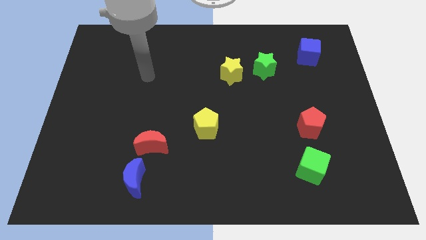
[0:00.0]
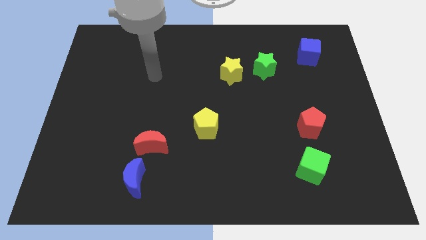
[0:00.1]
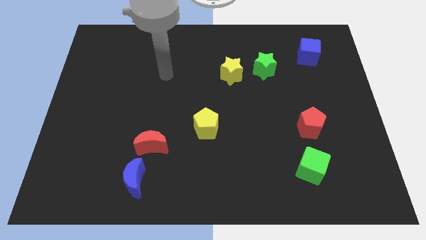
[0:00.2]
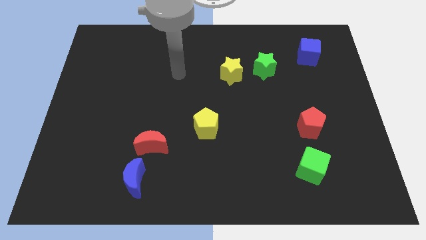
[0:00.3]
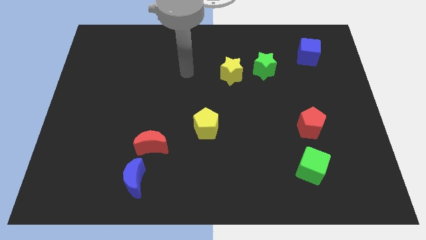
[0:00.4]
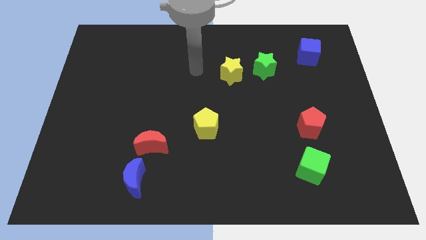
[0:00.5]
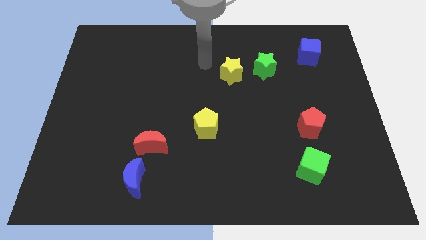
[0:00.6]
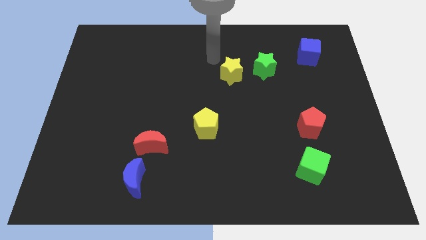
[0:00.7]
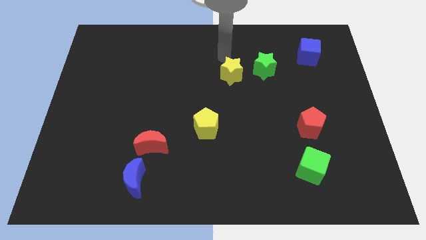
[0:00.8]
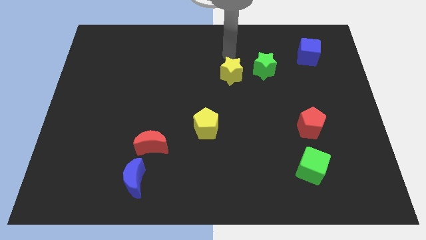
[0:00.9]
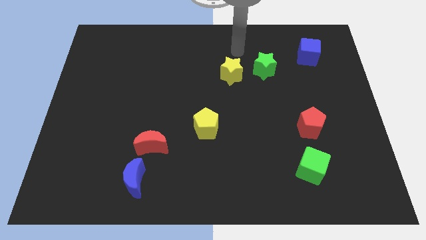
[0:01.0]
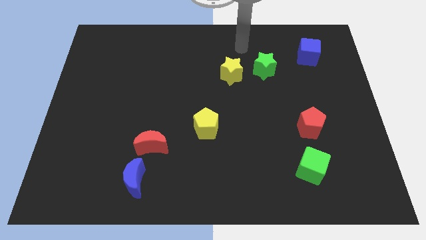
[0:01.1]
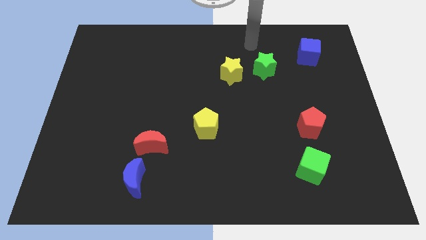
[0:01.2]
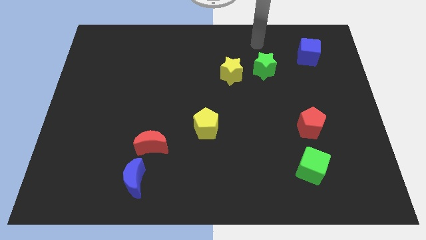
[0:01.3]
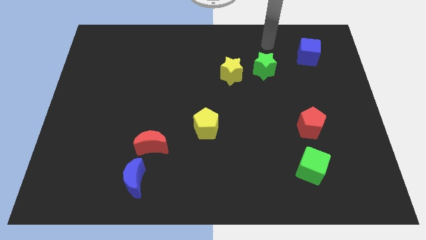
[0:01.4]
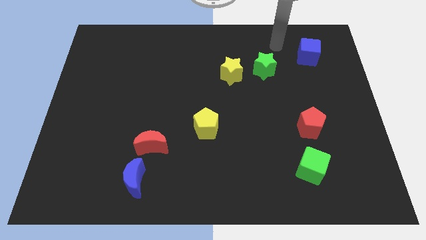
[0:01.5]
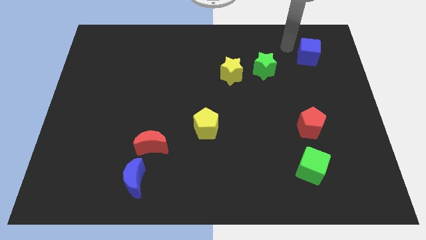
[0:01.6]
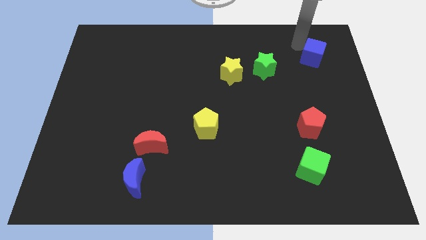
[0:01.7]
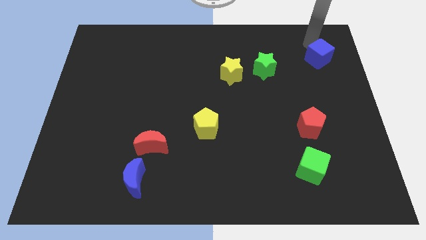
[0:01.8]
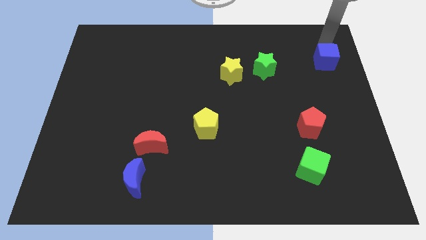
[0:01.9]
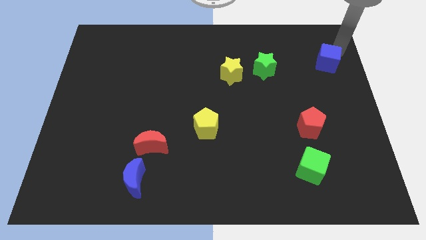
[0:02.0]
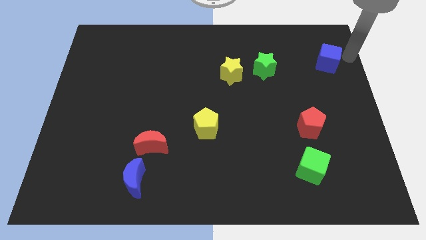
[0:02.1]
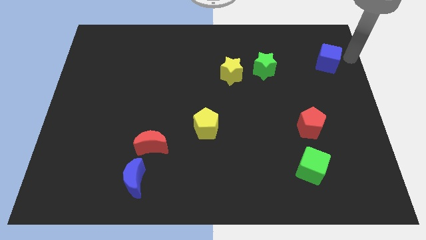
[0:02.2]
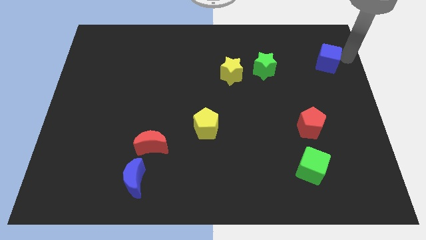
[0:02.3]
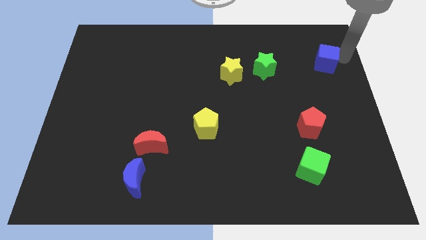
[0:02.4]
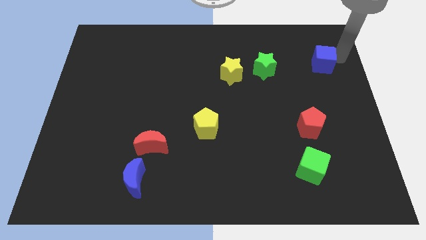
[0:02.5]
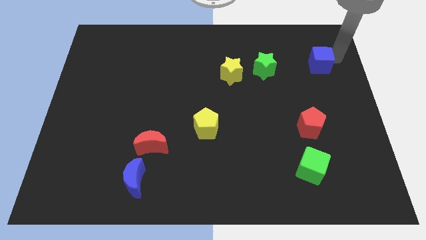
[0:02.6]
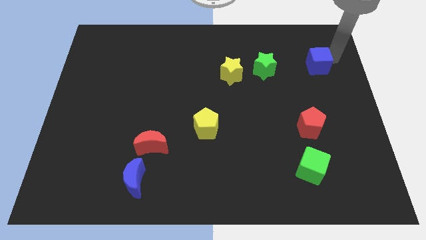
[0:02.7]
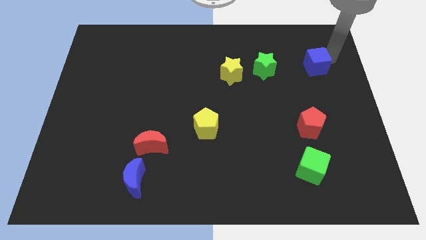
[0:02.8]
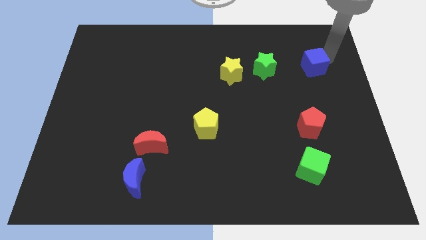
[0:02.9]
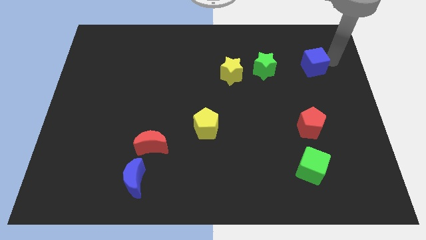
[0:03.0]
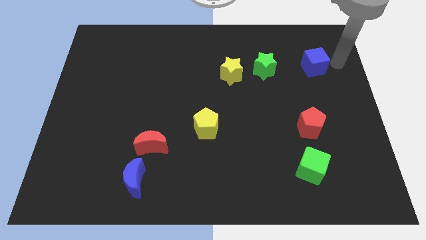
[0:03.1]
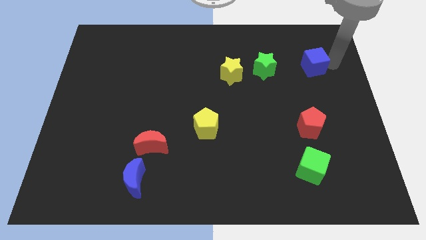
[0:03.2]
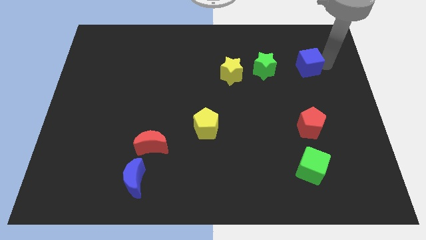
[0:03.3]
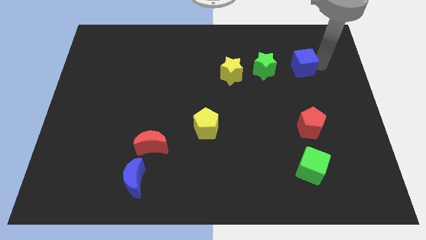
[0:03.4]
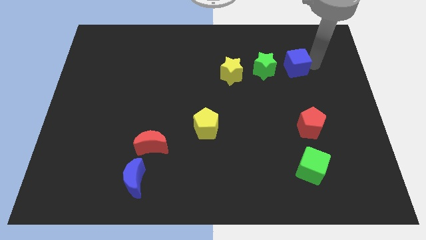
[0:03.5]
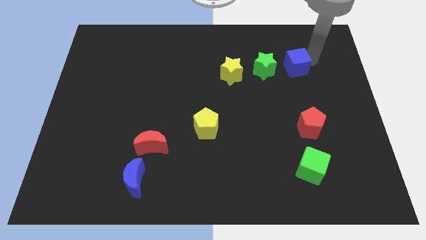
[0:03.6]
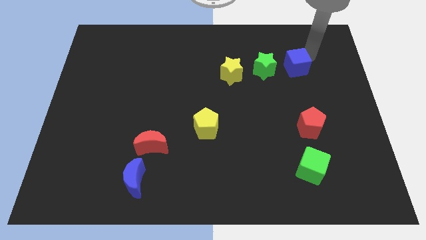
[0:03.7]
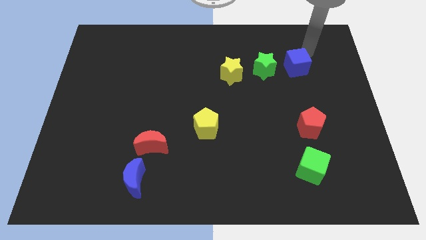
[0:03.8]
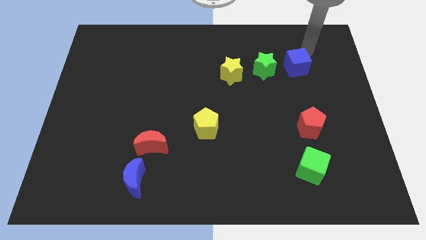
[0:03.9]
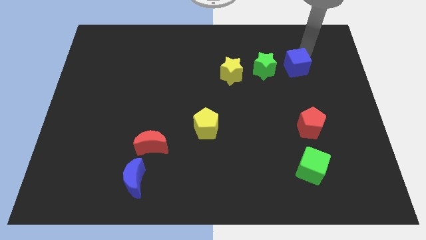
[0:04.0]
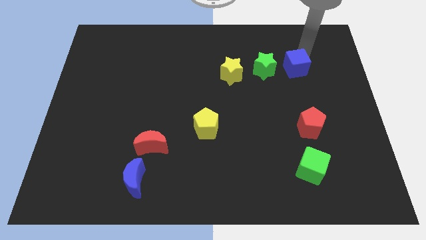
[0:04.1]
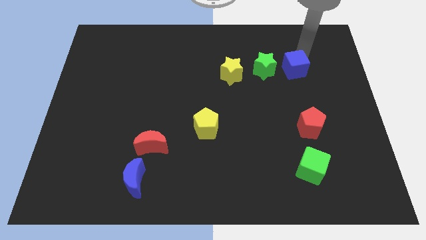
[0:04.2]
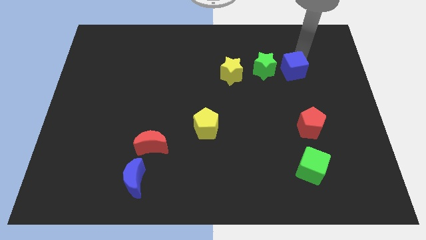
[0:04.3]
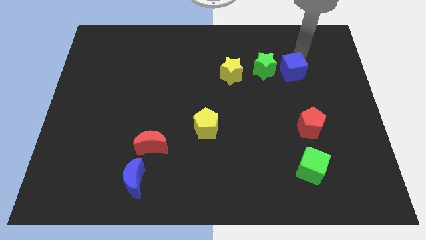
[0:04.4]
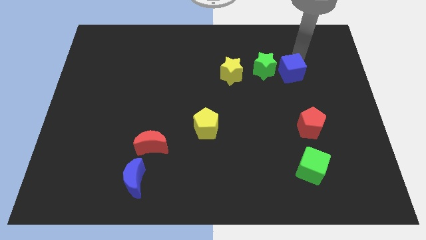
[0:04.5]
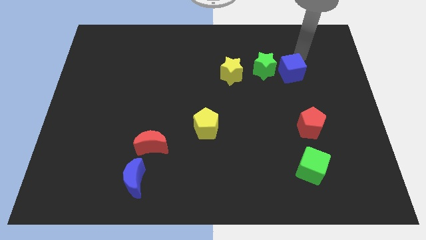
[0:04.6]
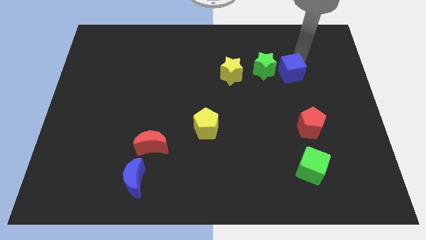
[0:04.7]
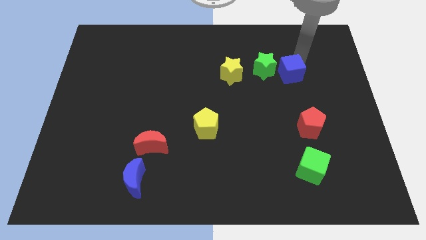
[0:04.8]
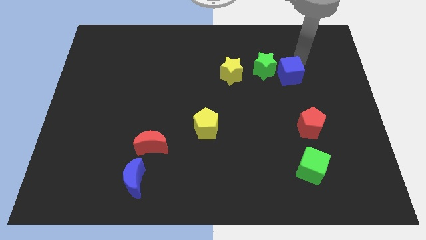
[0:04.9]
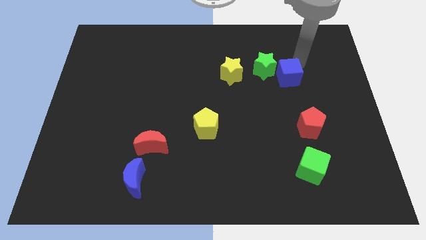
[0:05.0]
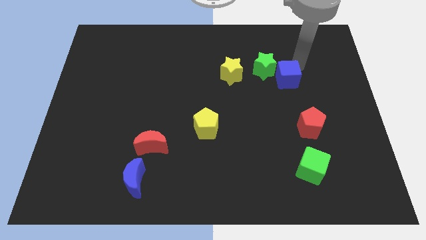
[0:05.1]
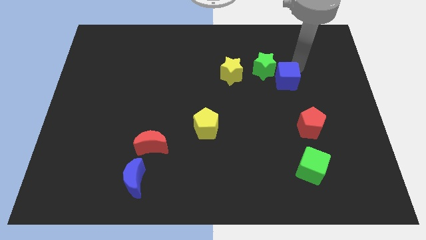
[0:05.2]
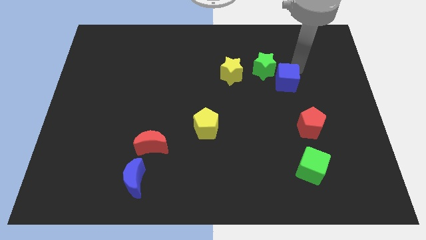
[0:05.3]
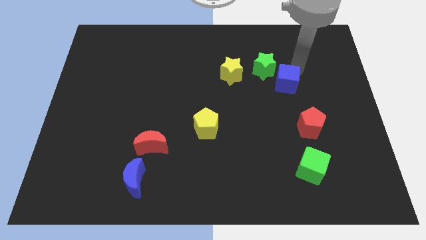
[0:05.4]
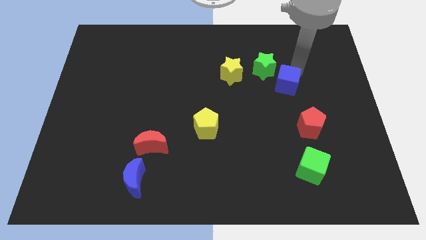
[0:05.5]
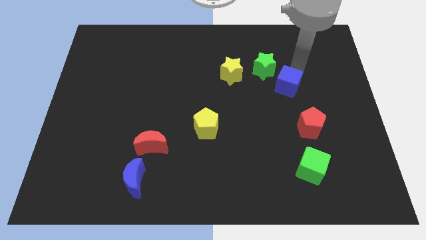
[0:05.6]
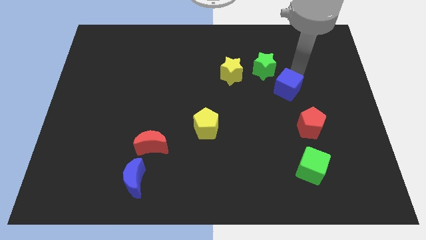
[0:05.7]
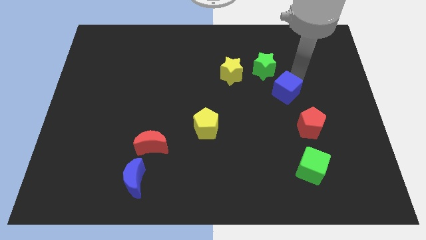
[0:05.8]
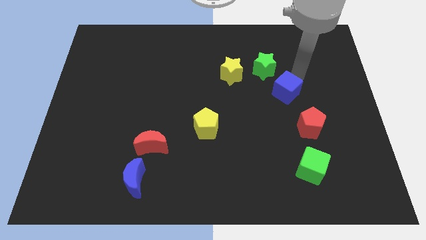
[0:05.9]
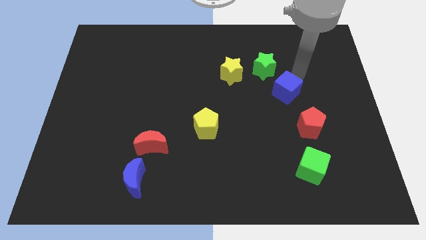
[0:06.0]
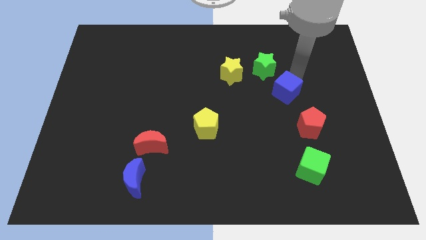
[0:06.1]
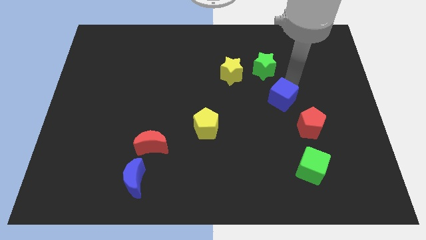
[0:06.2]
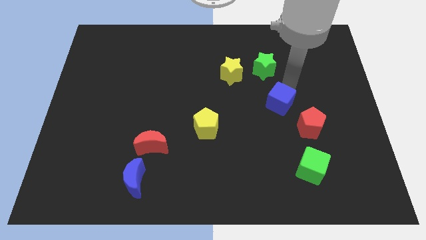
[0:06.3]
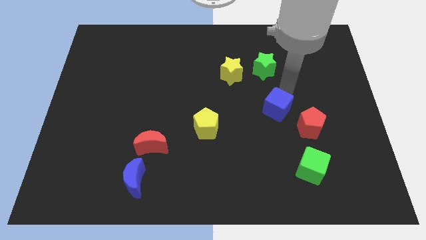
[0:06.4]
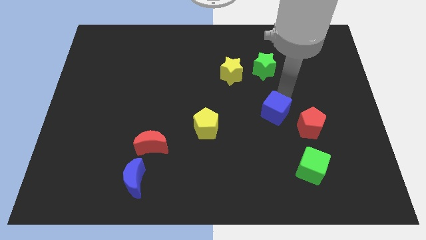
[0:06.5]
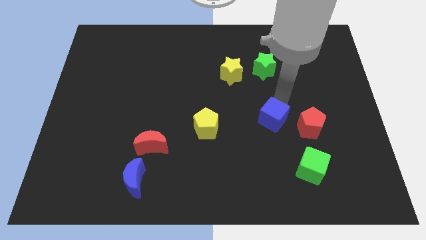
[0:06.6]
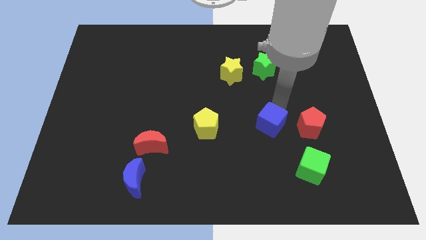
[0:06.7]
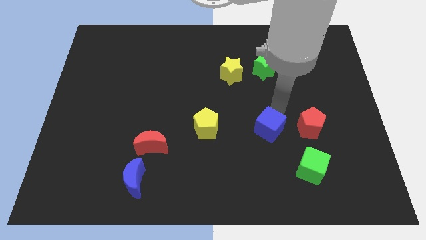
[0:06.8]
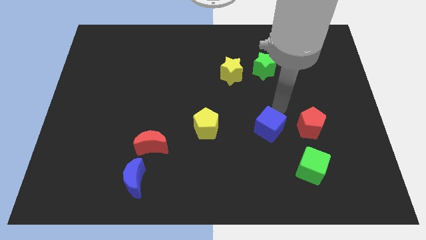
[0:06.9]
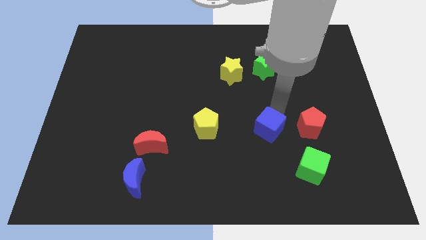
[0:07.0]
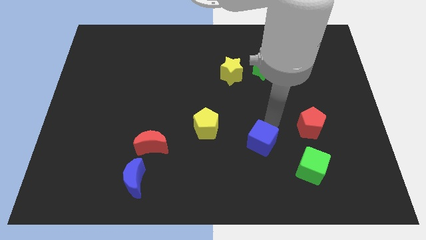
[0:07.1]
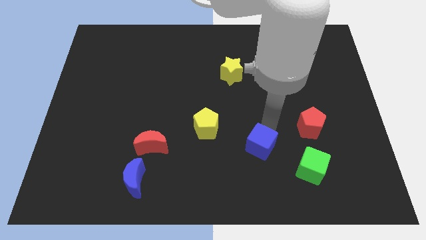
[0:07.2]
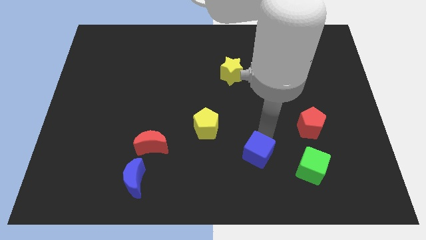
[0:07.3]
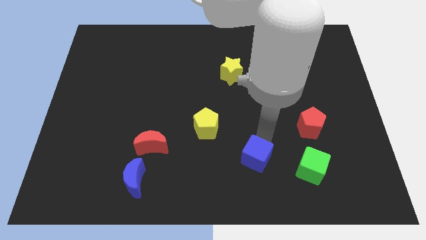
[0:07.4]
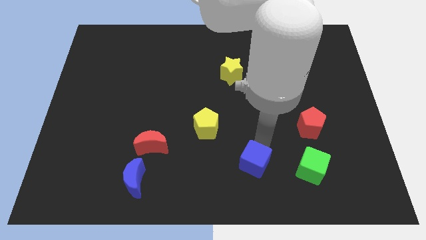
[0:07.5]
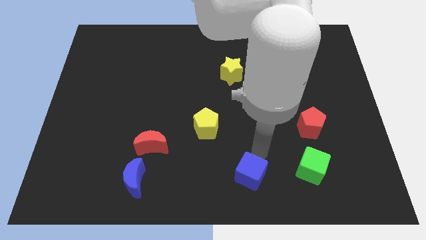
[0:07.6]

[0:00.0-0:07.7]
slide the blue cube to the bottom
